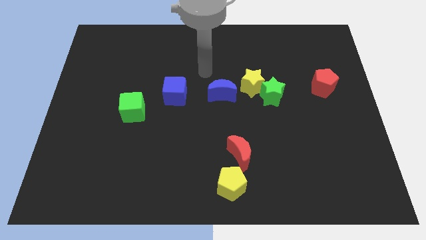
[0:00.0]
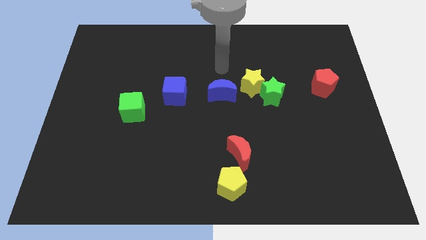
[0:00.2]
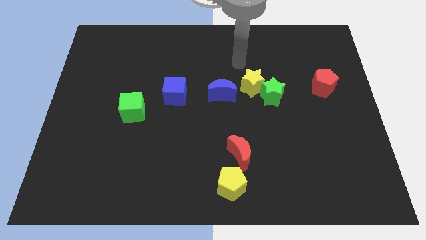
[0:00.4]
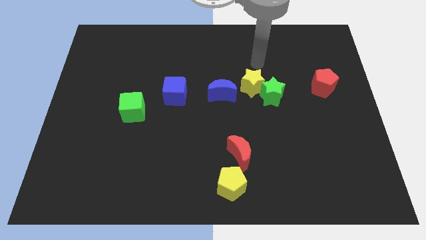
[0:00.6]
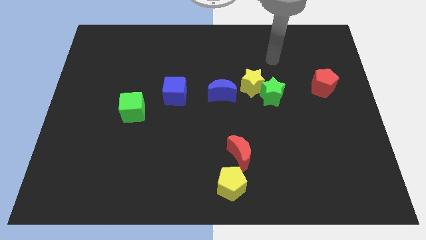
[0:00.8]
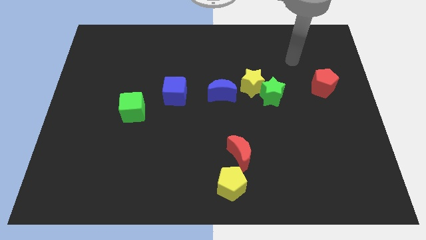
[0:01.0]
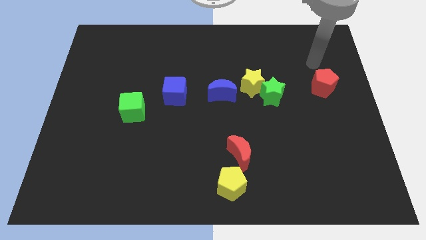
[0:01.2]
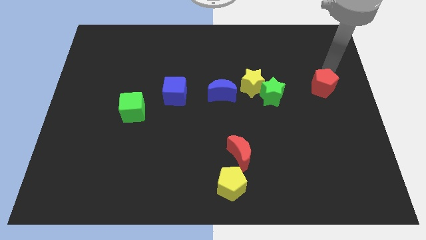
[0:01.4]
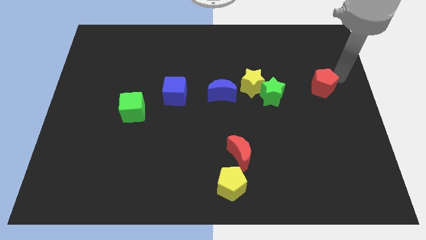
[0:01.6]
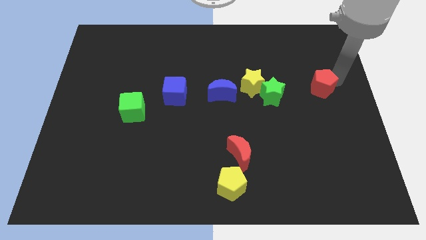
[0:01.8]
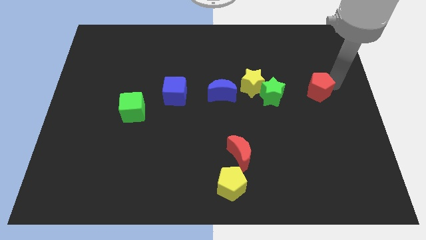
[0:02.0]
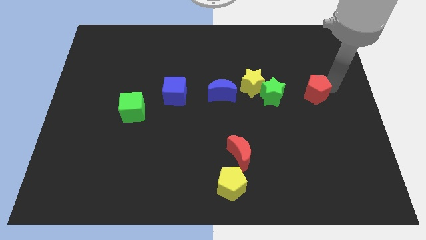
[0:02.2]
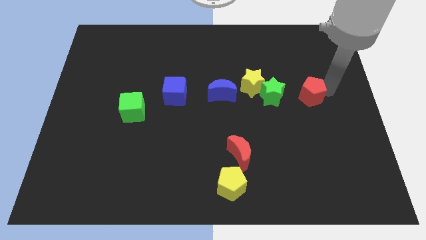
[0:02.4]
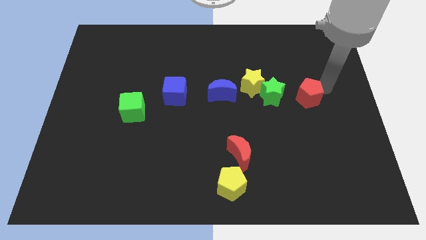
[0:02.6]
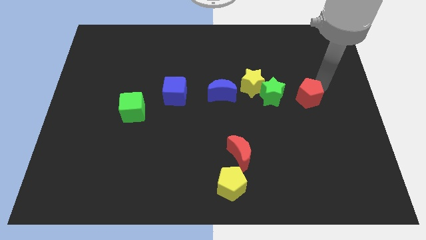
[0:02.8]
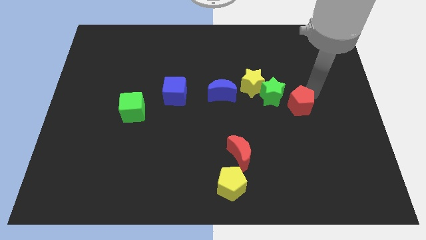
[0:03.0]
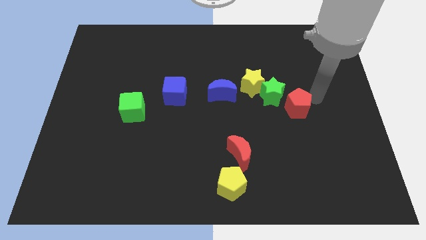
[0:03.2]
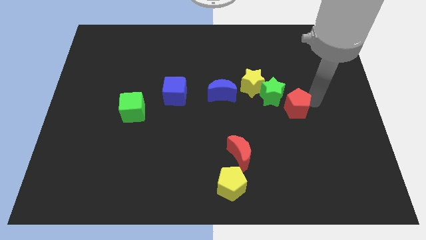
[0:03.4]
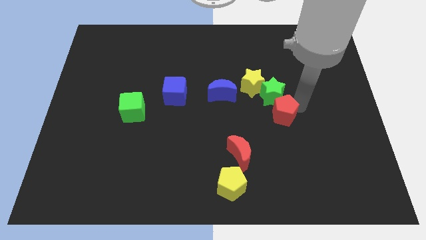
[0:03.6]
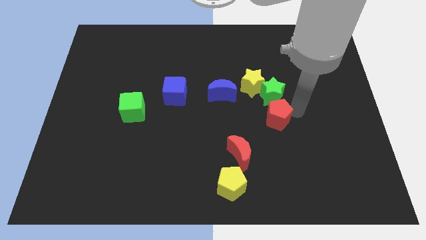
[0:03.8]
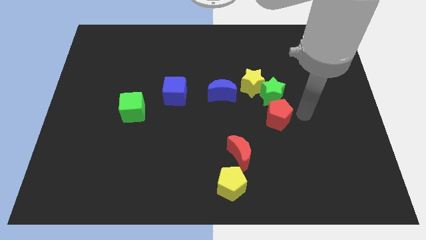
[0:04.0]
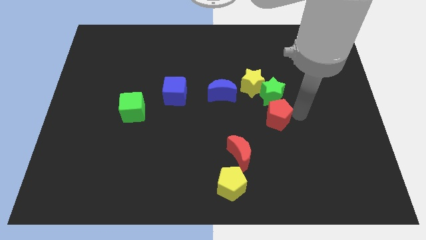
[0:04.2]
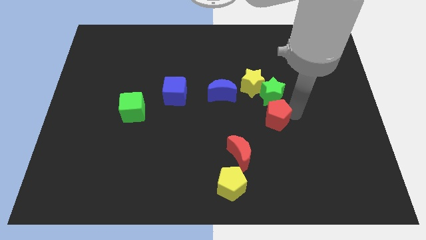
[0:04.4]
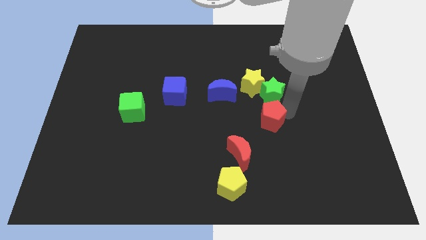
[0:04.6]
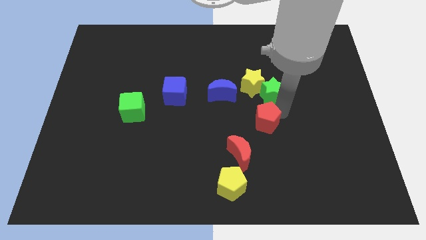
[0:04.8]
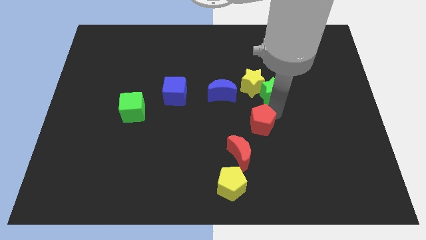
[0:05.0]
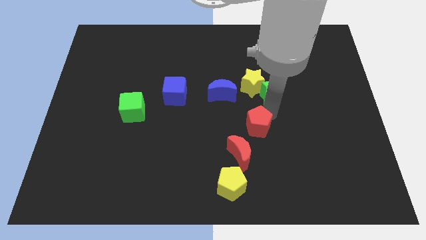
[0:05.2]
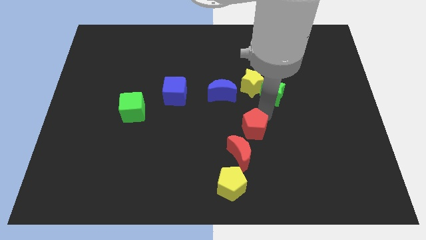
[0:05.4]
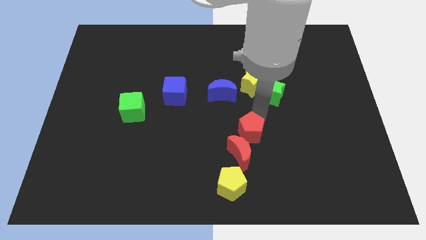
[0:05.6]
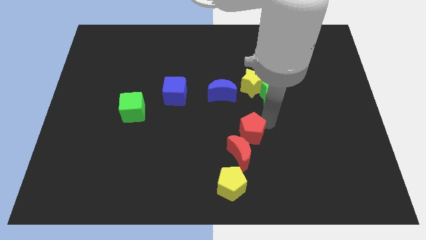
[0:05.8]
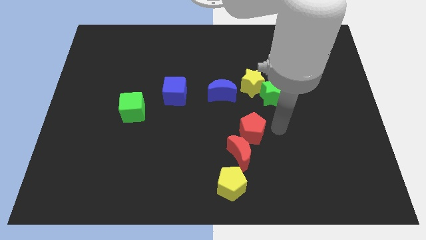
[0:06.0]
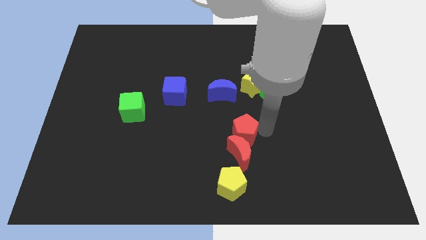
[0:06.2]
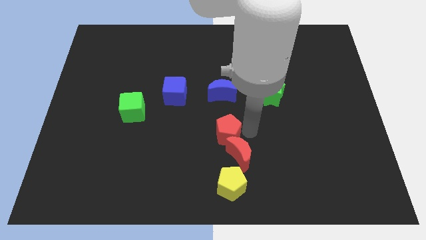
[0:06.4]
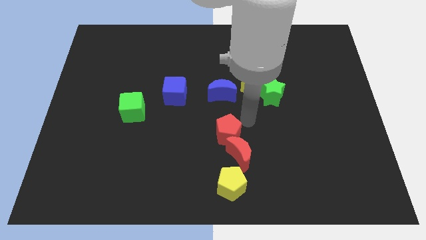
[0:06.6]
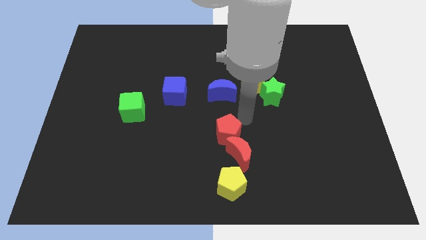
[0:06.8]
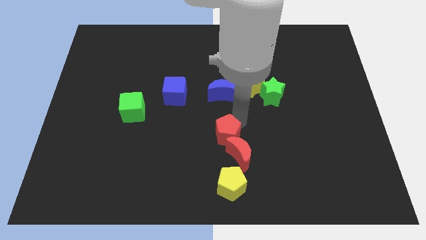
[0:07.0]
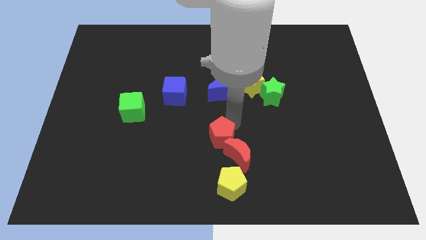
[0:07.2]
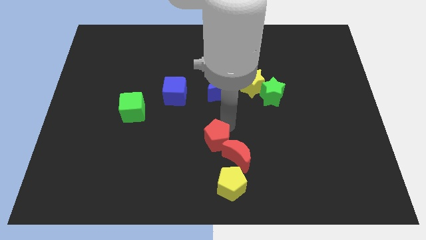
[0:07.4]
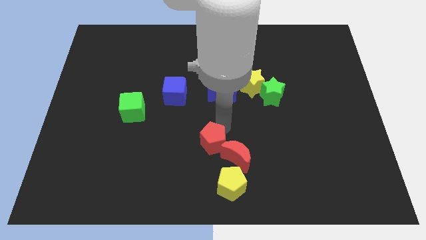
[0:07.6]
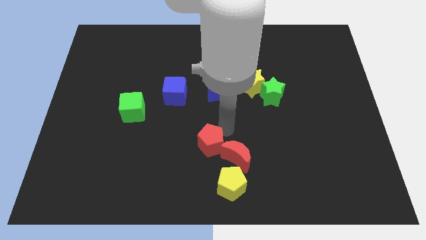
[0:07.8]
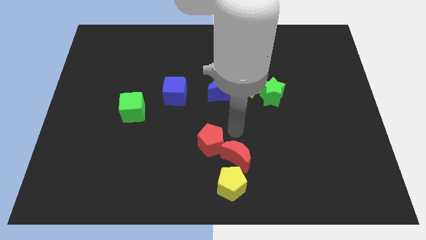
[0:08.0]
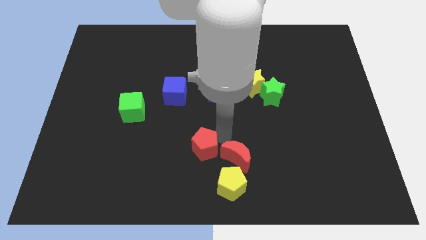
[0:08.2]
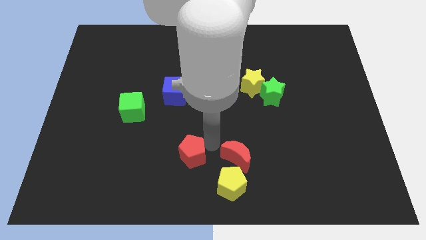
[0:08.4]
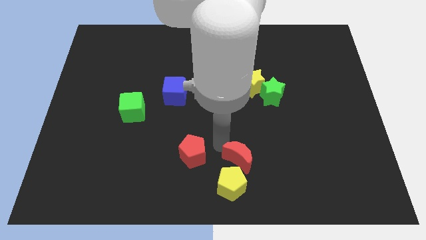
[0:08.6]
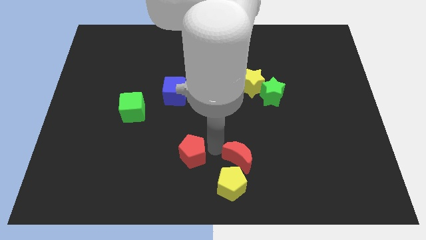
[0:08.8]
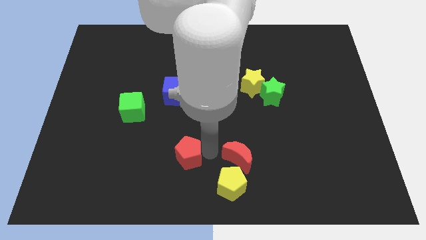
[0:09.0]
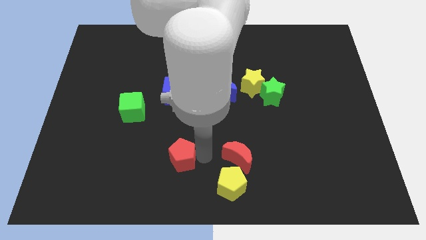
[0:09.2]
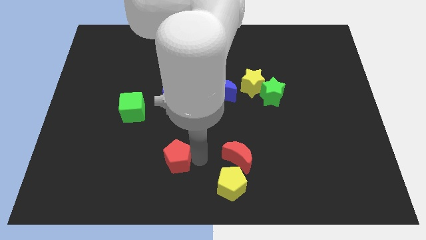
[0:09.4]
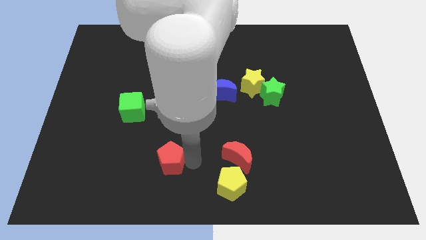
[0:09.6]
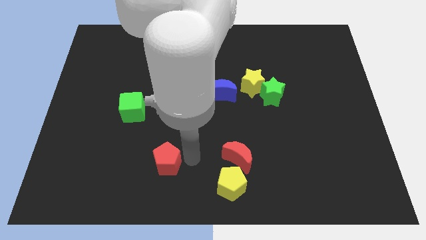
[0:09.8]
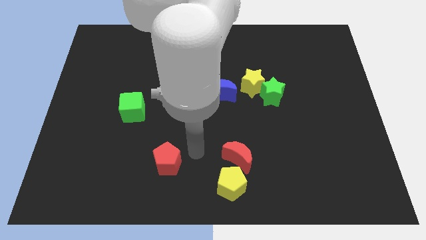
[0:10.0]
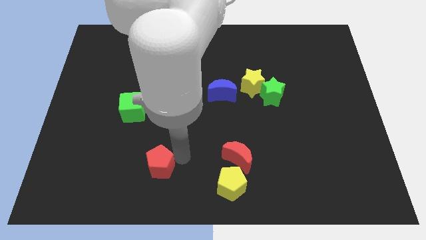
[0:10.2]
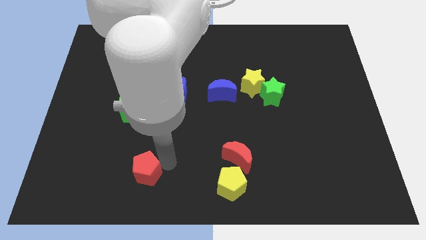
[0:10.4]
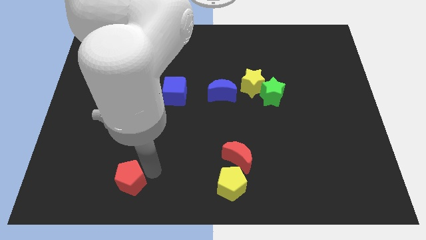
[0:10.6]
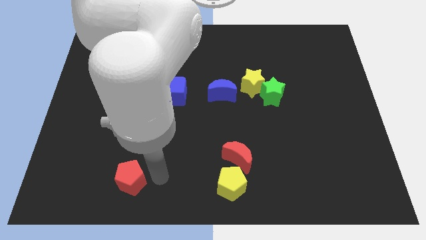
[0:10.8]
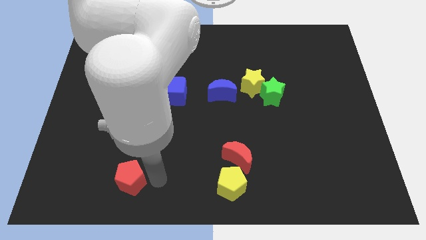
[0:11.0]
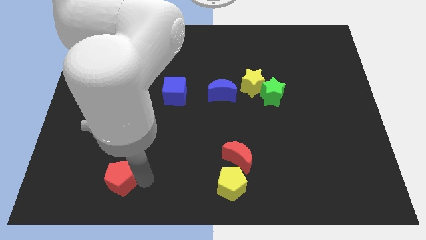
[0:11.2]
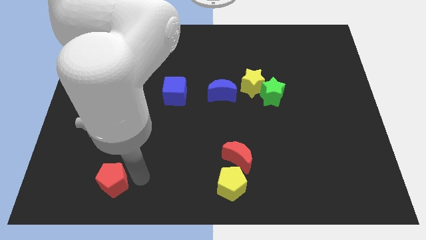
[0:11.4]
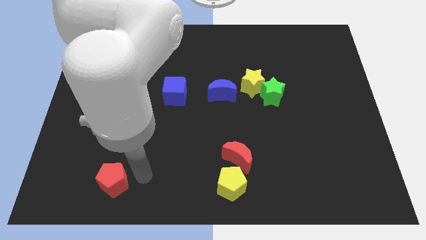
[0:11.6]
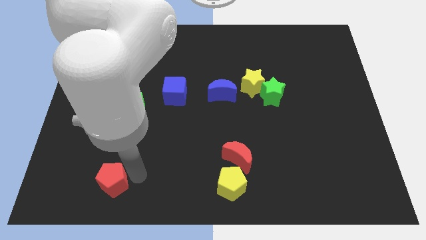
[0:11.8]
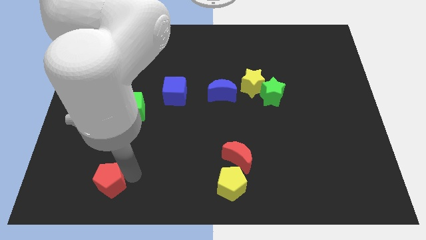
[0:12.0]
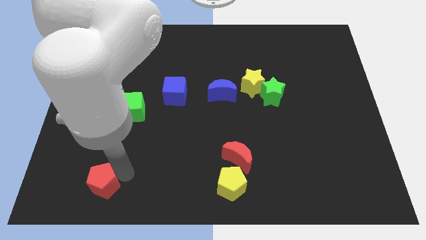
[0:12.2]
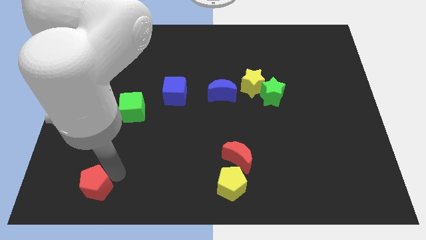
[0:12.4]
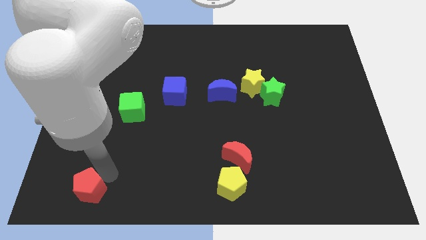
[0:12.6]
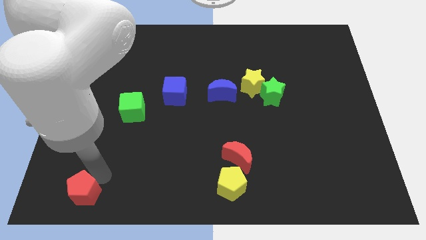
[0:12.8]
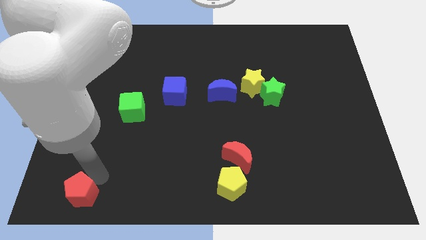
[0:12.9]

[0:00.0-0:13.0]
push the red pentagon to the bottom left
